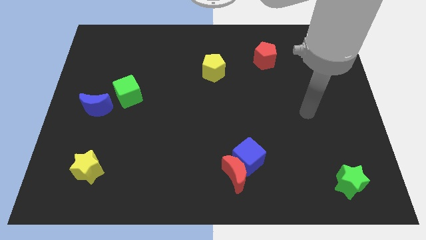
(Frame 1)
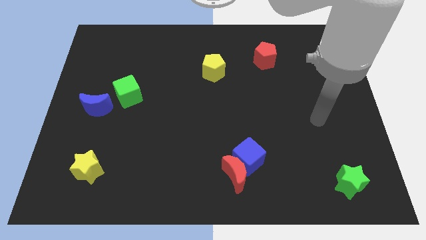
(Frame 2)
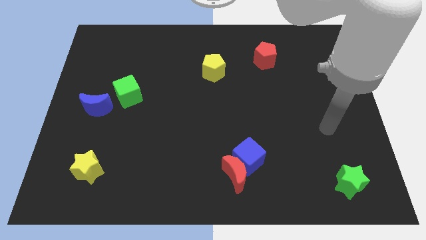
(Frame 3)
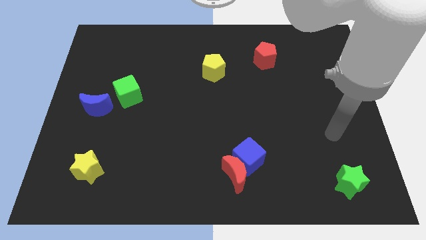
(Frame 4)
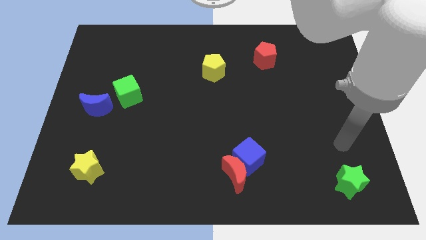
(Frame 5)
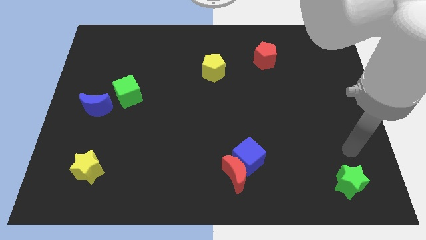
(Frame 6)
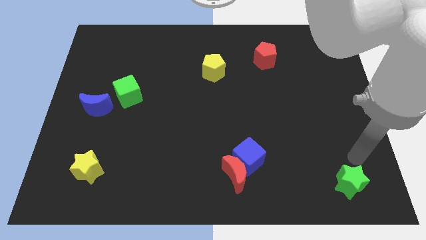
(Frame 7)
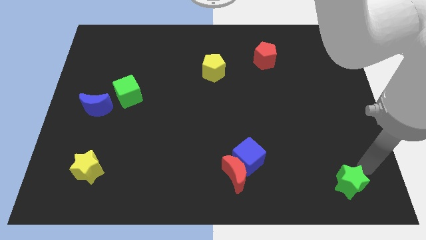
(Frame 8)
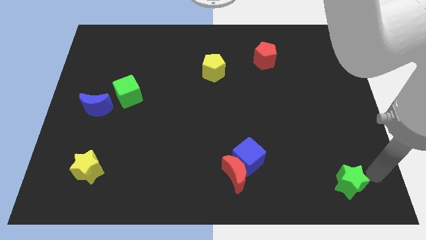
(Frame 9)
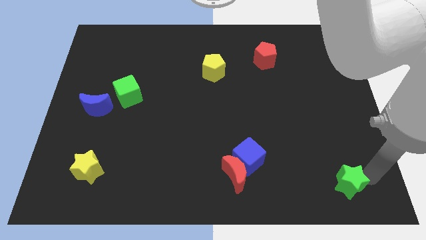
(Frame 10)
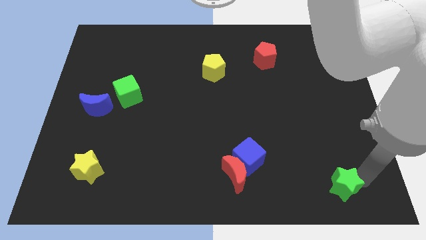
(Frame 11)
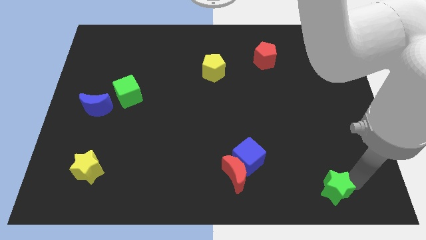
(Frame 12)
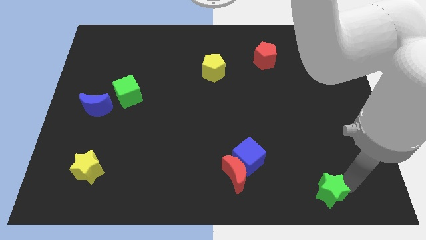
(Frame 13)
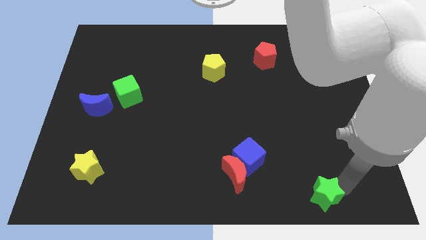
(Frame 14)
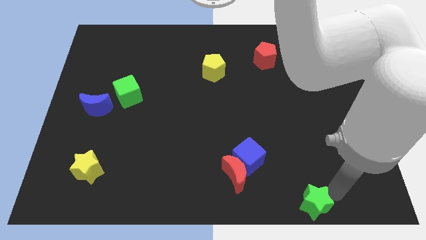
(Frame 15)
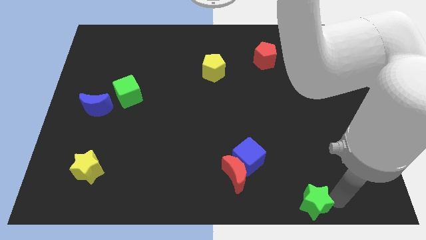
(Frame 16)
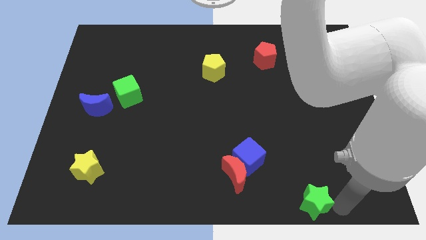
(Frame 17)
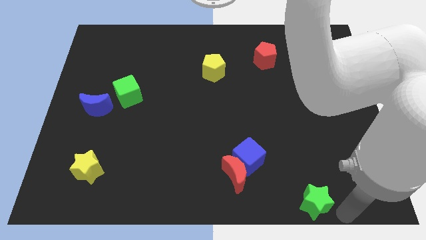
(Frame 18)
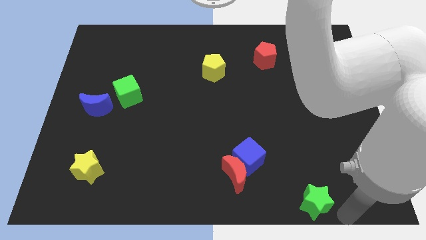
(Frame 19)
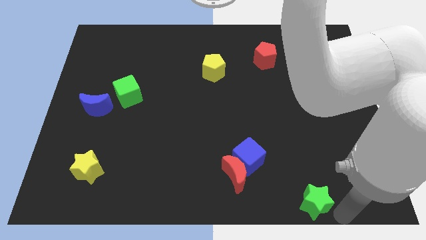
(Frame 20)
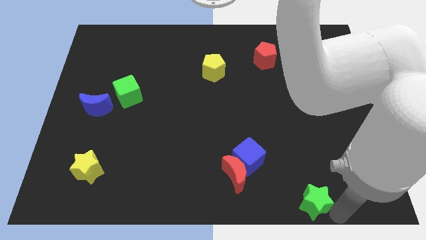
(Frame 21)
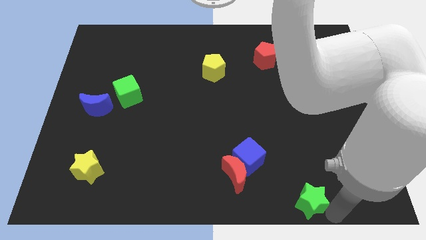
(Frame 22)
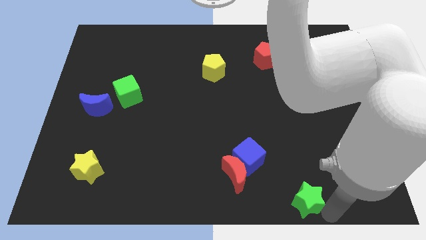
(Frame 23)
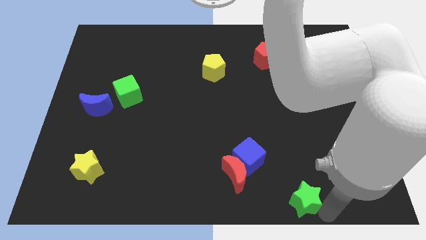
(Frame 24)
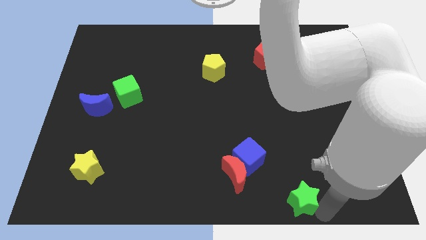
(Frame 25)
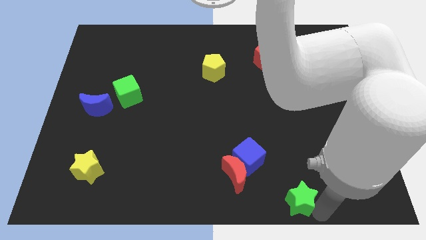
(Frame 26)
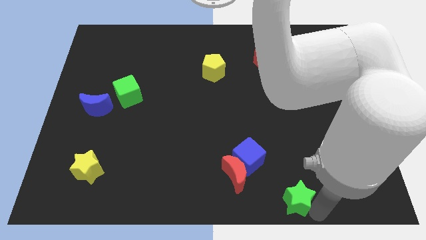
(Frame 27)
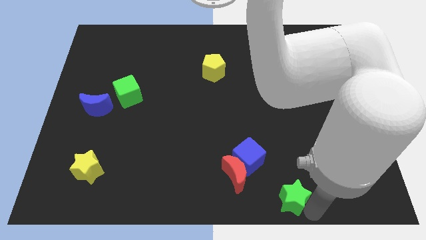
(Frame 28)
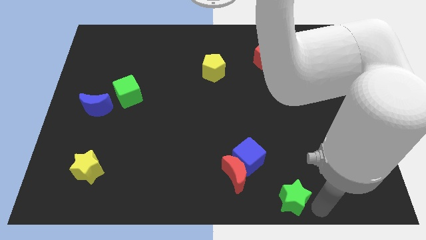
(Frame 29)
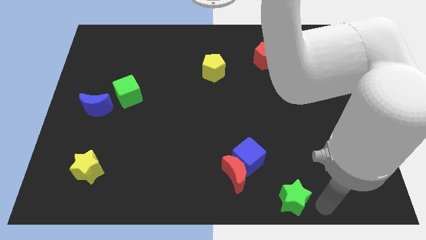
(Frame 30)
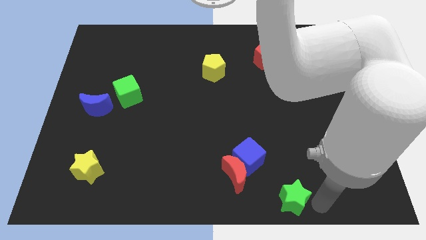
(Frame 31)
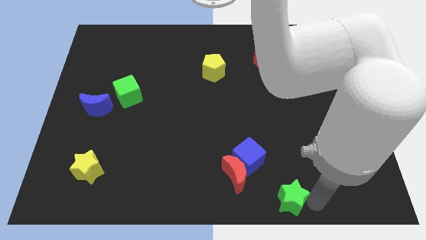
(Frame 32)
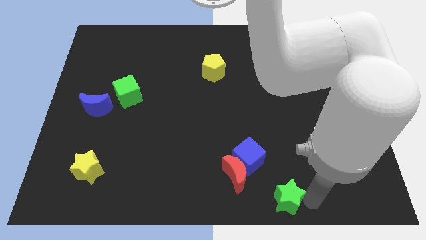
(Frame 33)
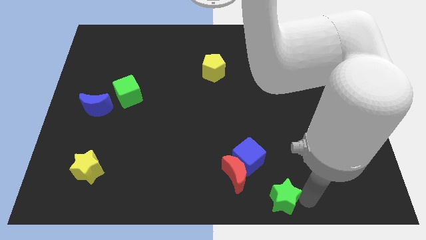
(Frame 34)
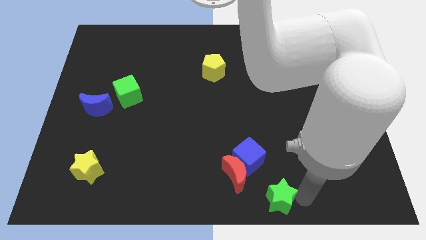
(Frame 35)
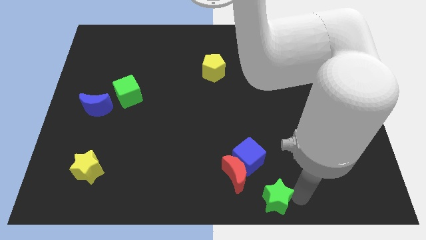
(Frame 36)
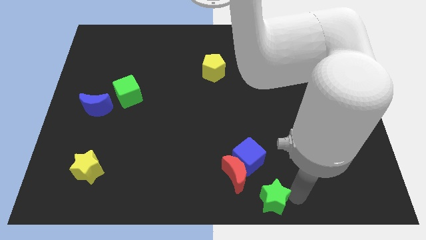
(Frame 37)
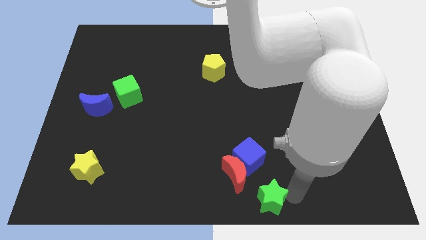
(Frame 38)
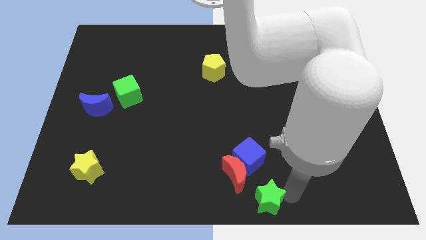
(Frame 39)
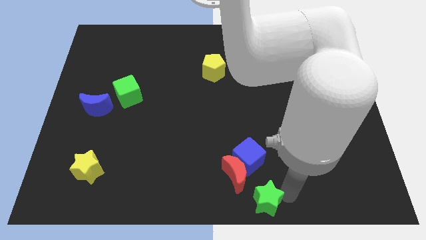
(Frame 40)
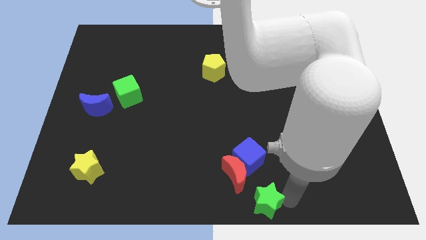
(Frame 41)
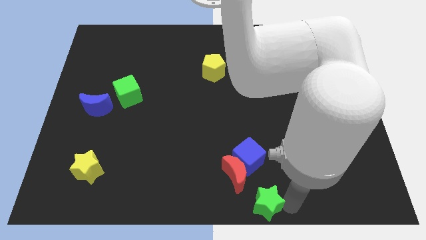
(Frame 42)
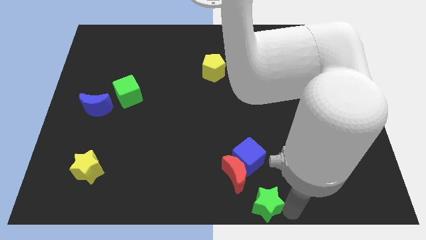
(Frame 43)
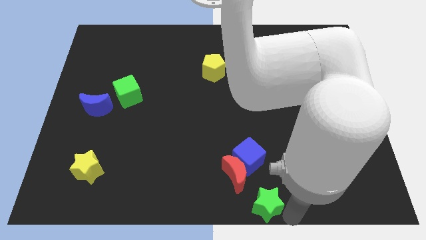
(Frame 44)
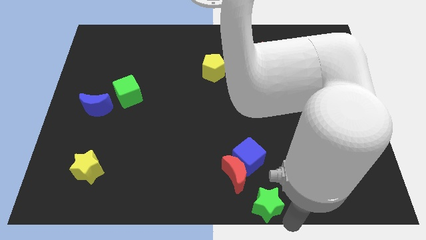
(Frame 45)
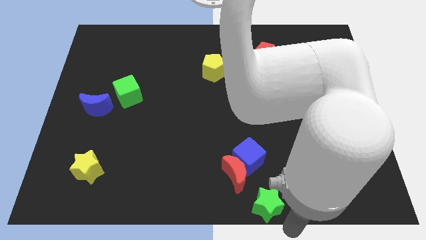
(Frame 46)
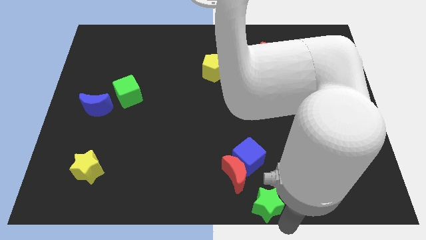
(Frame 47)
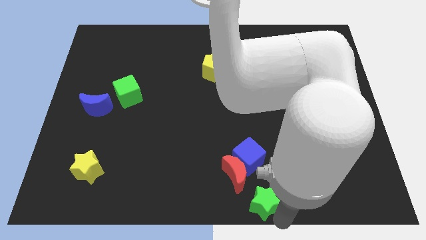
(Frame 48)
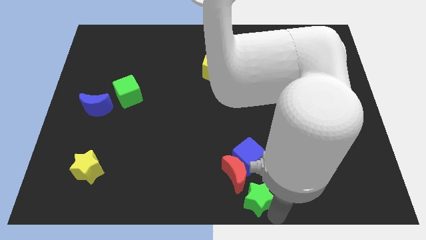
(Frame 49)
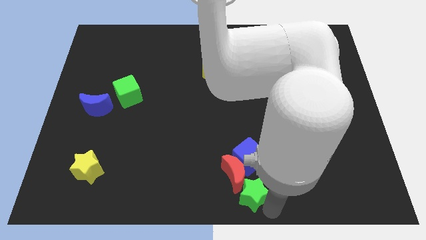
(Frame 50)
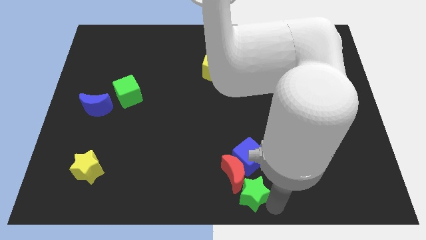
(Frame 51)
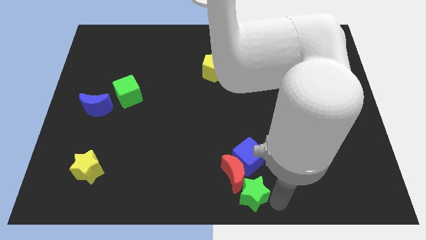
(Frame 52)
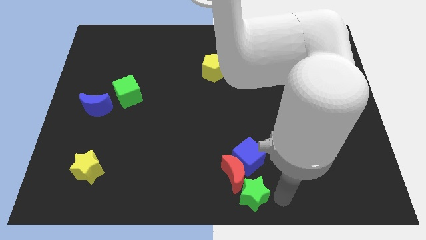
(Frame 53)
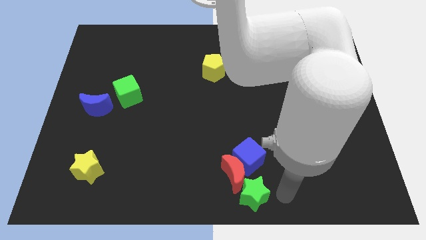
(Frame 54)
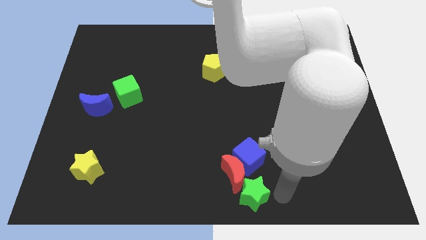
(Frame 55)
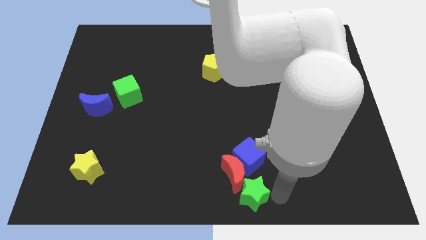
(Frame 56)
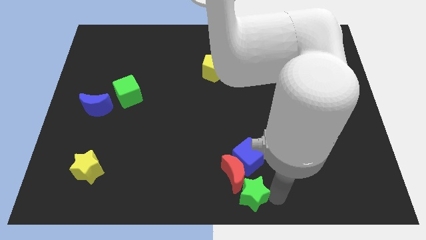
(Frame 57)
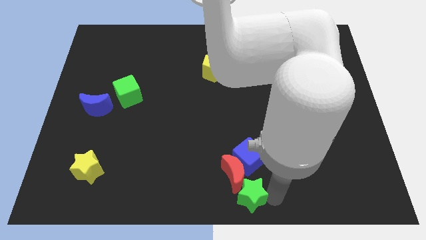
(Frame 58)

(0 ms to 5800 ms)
move the green star left

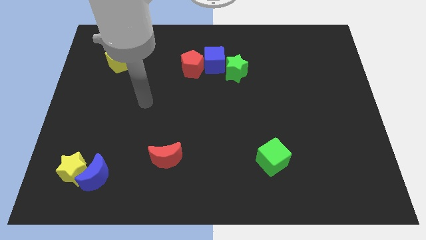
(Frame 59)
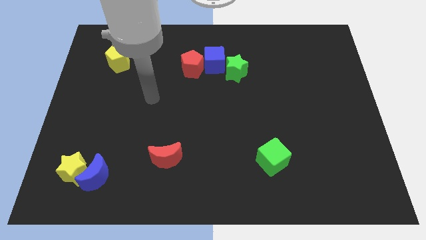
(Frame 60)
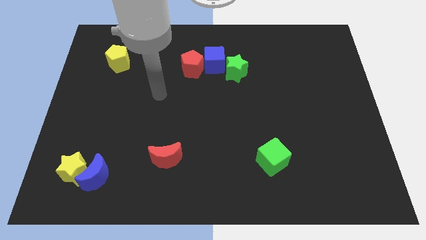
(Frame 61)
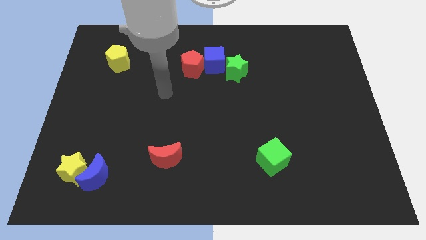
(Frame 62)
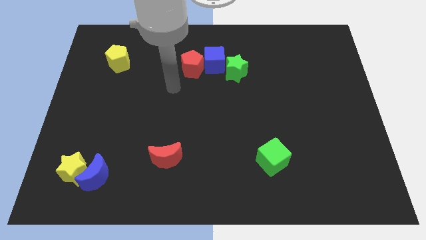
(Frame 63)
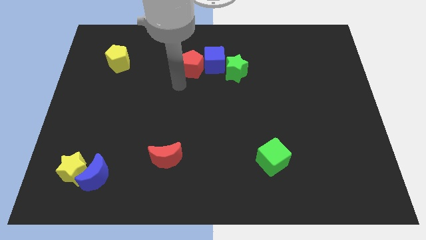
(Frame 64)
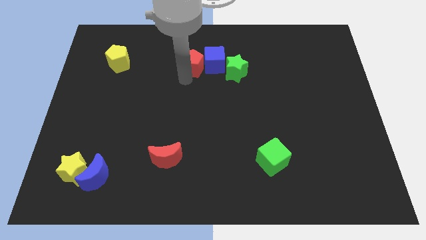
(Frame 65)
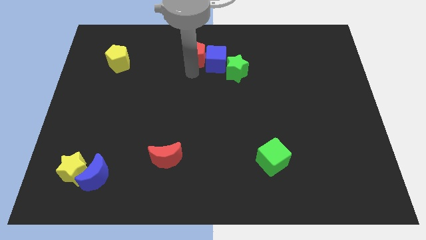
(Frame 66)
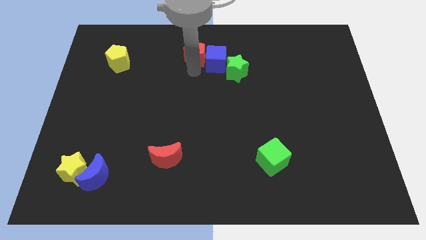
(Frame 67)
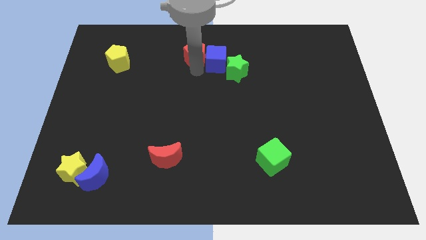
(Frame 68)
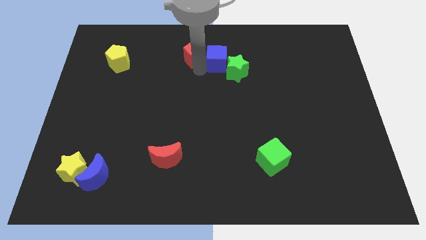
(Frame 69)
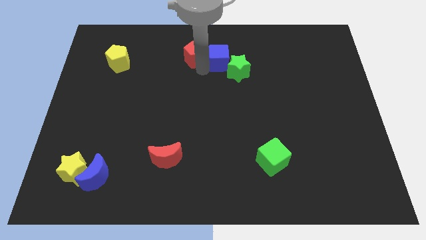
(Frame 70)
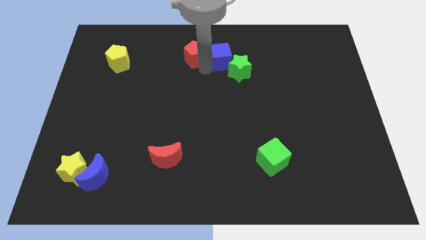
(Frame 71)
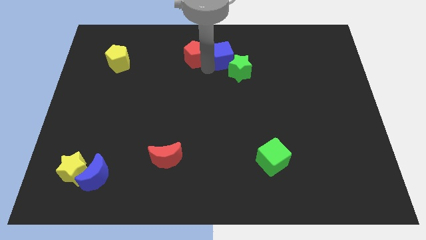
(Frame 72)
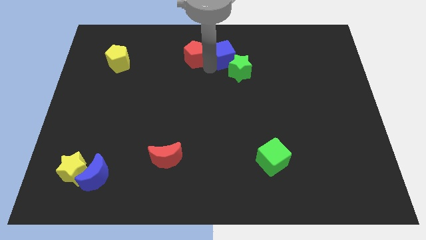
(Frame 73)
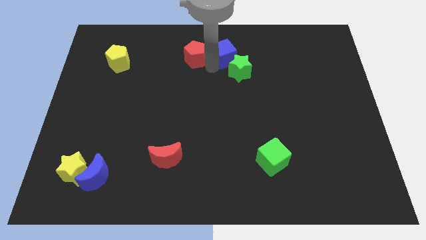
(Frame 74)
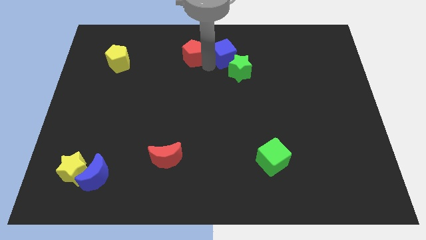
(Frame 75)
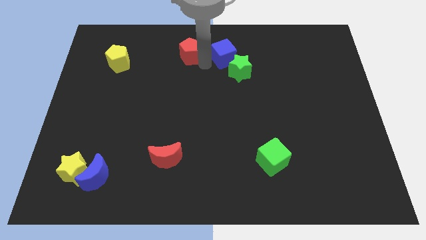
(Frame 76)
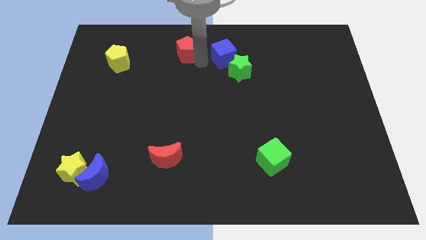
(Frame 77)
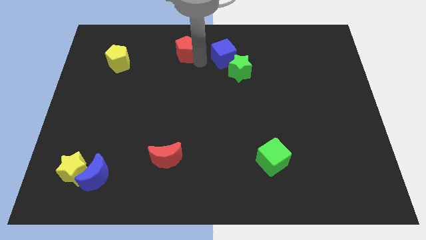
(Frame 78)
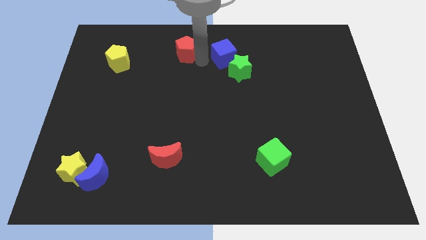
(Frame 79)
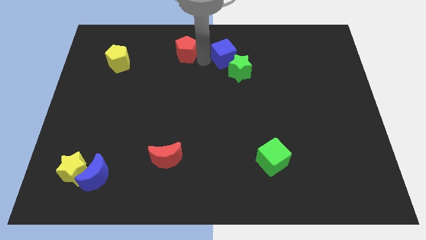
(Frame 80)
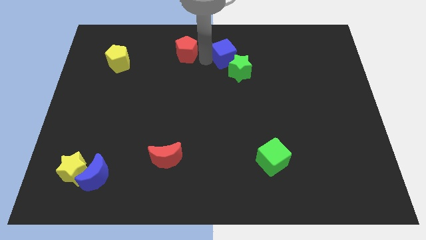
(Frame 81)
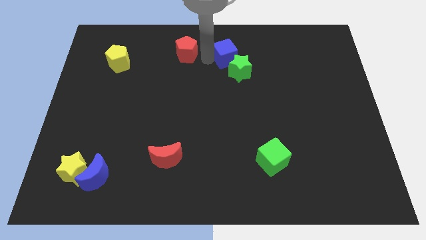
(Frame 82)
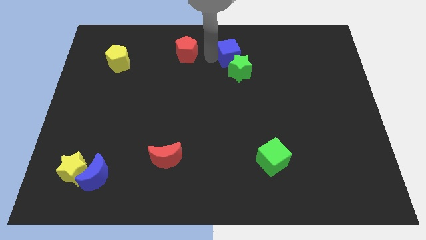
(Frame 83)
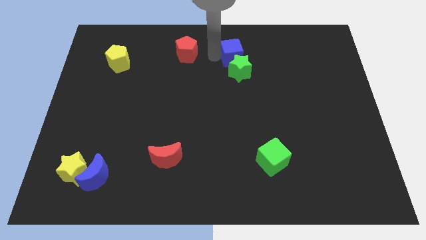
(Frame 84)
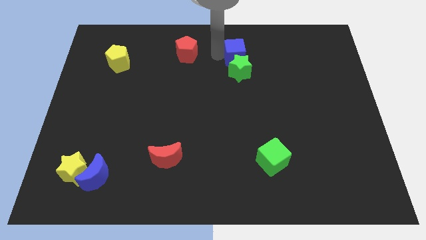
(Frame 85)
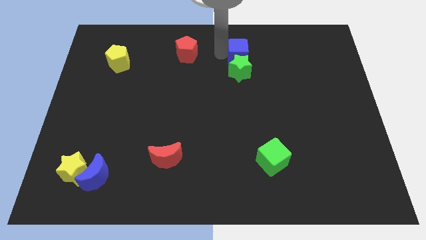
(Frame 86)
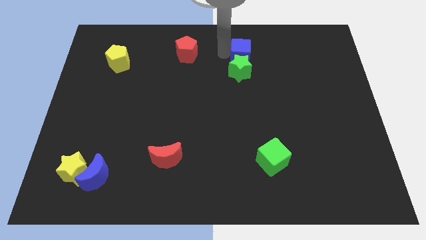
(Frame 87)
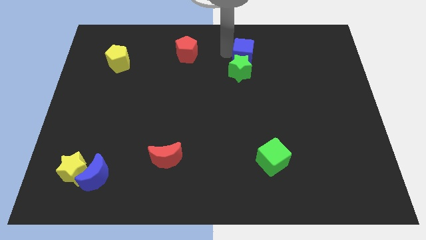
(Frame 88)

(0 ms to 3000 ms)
slightly move the blue cube to the right
